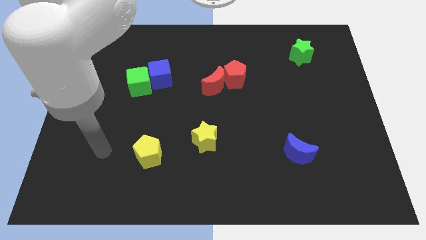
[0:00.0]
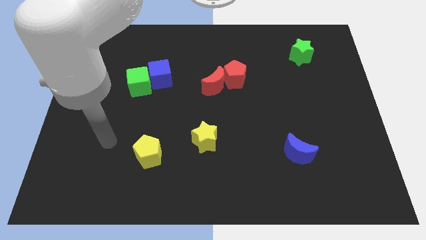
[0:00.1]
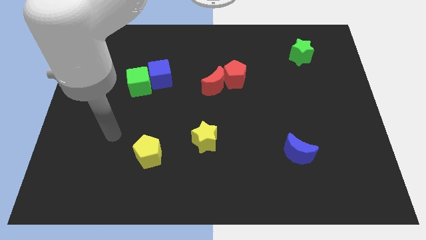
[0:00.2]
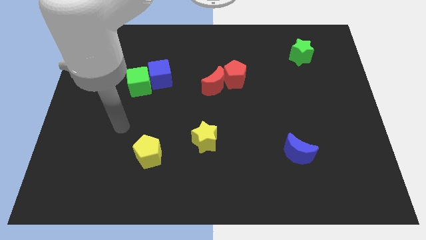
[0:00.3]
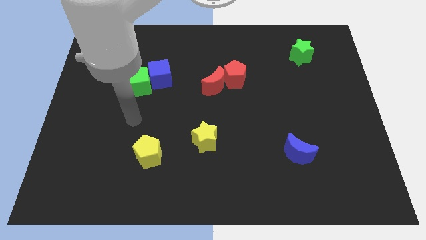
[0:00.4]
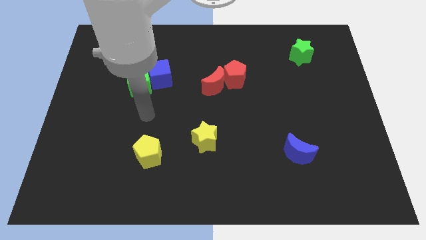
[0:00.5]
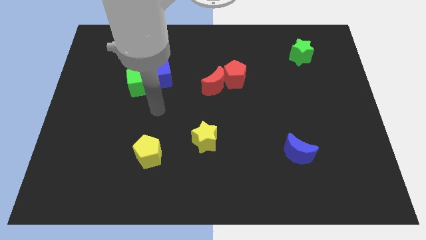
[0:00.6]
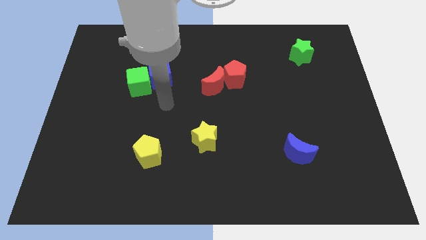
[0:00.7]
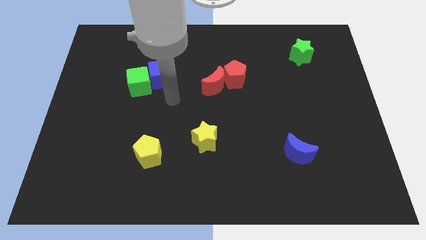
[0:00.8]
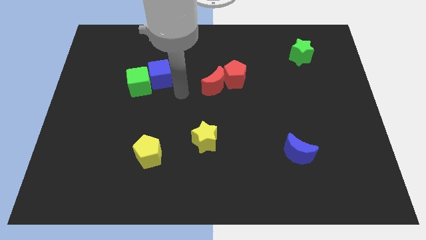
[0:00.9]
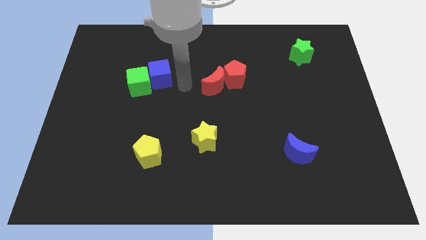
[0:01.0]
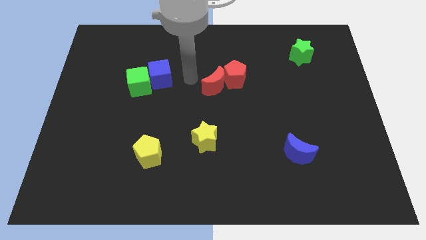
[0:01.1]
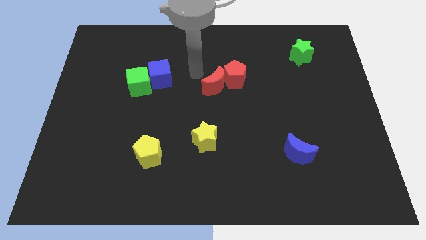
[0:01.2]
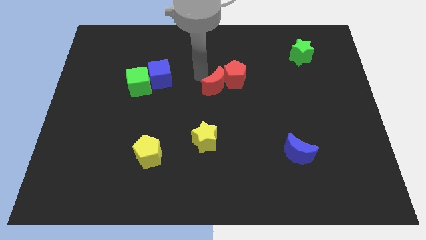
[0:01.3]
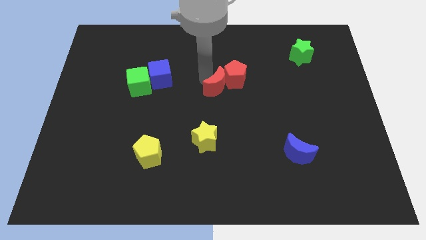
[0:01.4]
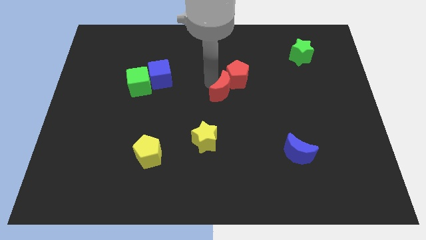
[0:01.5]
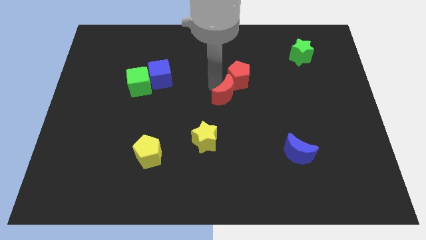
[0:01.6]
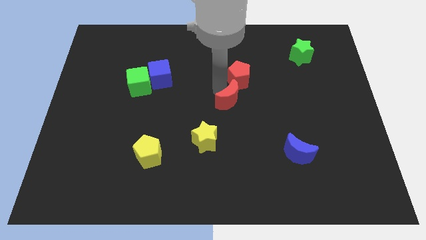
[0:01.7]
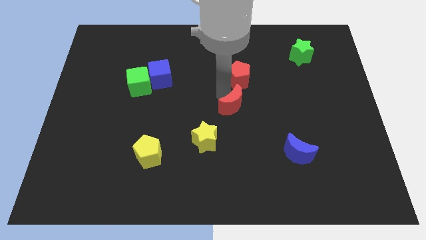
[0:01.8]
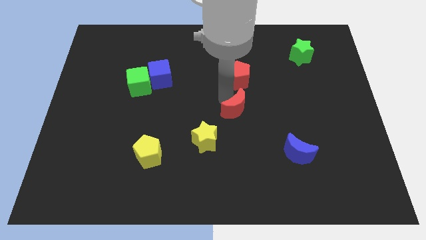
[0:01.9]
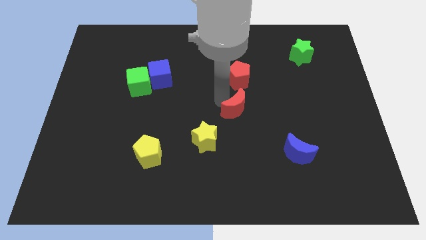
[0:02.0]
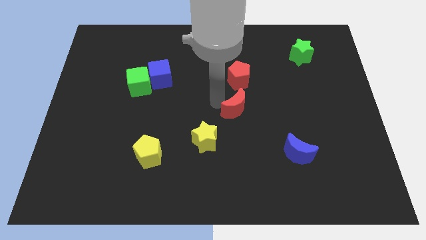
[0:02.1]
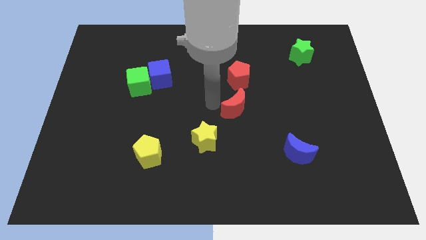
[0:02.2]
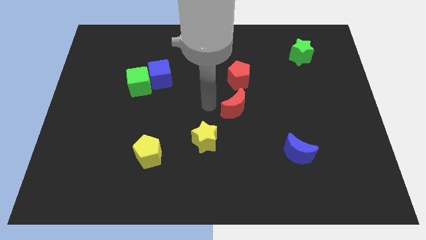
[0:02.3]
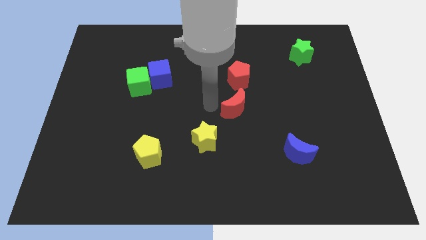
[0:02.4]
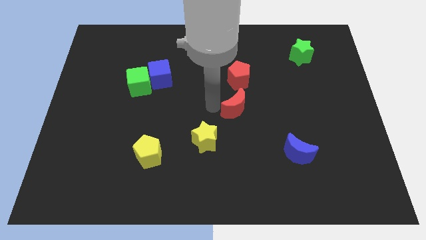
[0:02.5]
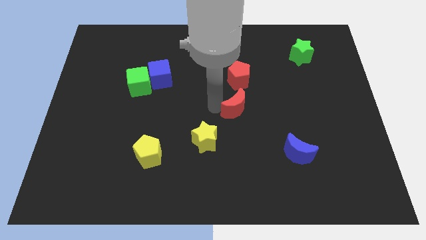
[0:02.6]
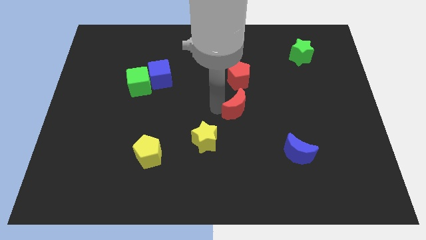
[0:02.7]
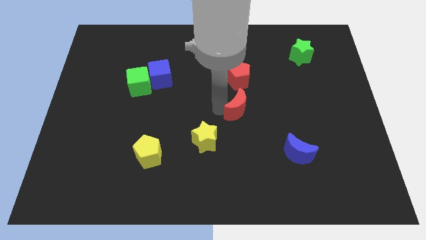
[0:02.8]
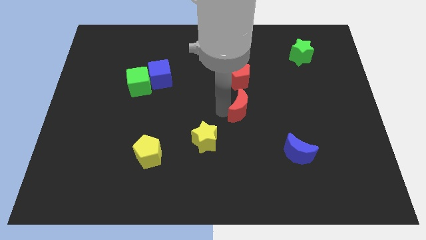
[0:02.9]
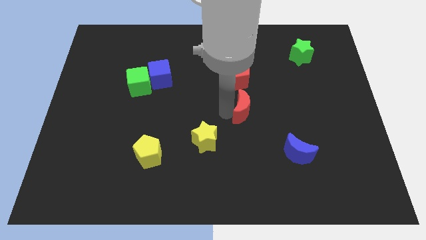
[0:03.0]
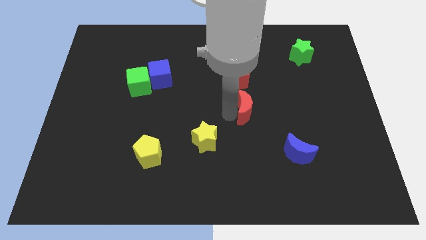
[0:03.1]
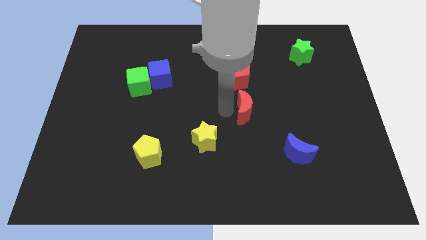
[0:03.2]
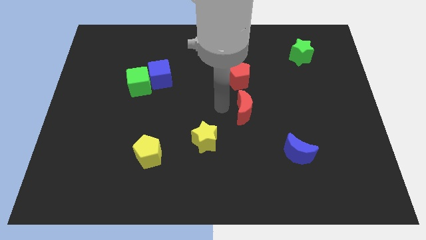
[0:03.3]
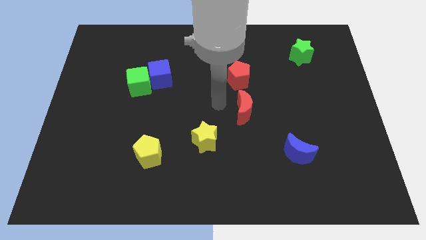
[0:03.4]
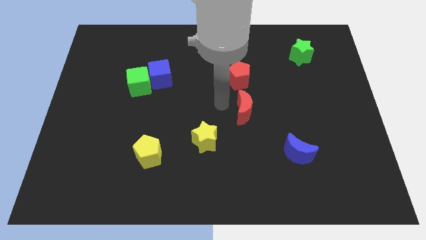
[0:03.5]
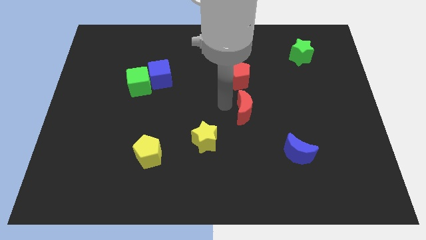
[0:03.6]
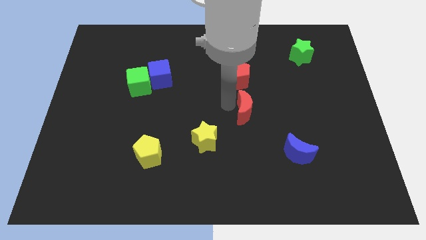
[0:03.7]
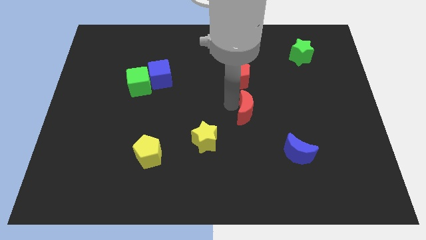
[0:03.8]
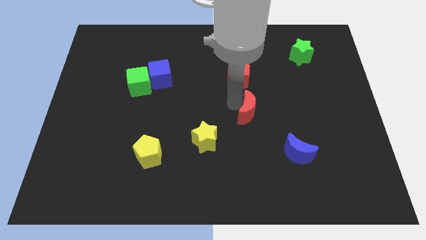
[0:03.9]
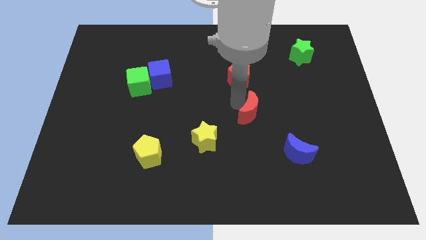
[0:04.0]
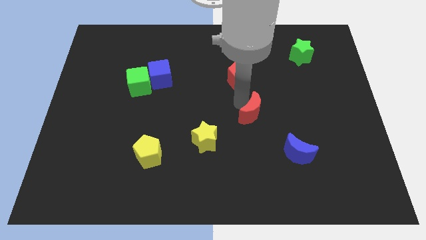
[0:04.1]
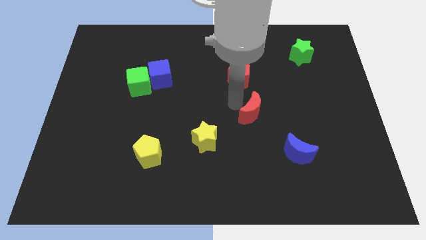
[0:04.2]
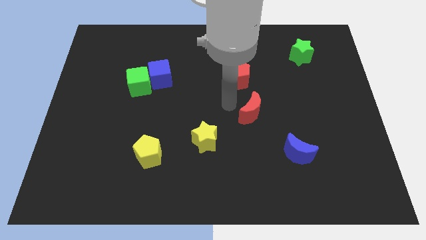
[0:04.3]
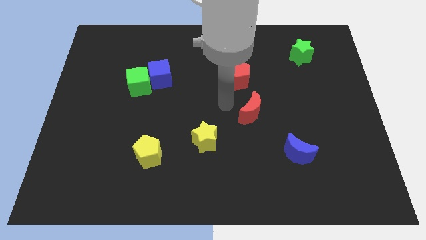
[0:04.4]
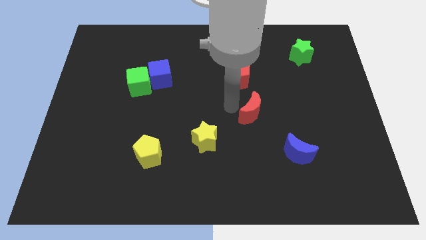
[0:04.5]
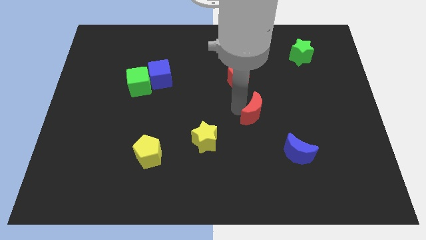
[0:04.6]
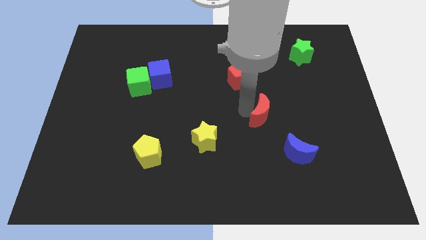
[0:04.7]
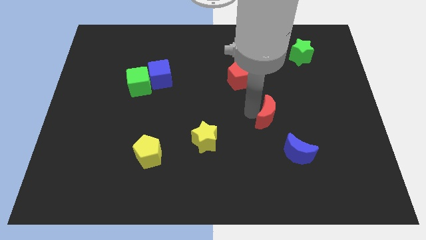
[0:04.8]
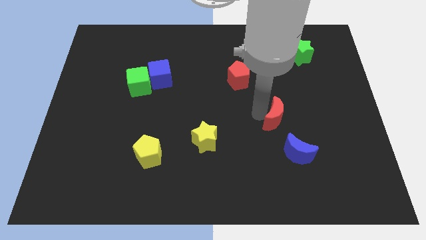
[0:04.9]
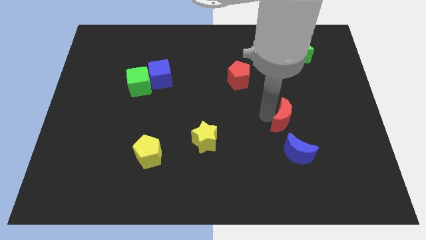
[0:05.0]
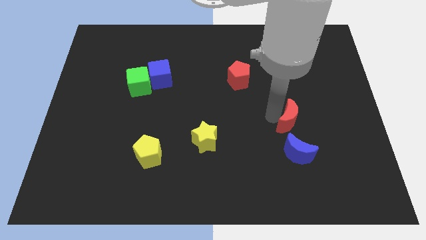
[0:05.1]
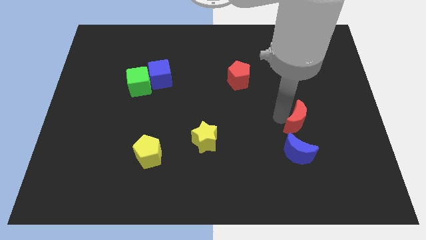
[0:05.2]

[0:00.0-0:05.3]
push the red moon downwards and to the right diagonally

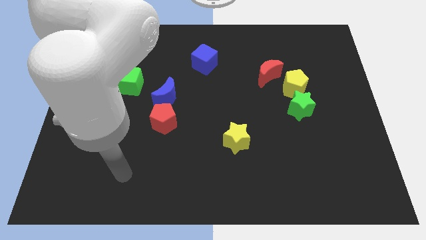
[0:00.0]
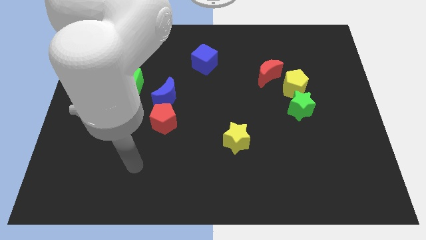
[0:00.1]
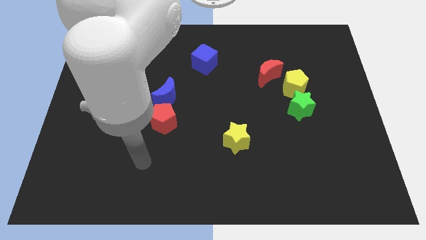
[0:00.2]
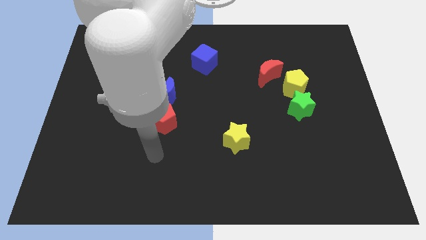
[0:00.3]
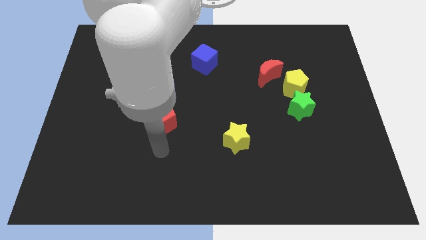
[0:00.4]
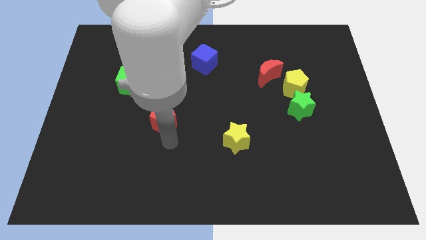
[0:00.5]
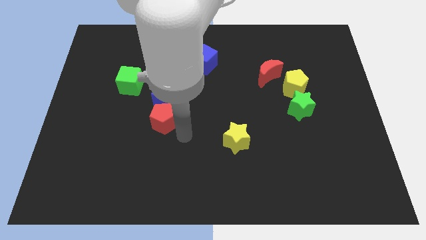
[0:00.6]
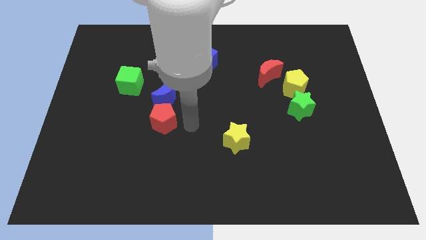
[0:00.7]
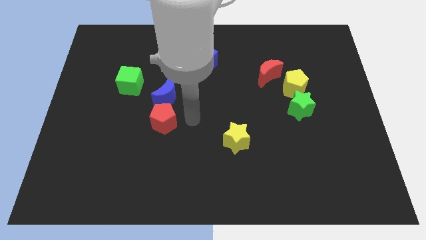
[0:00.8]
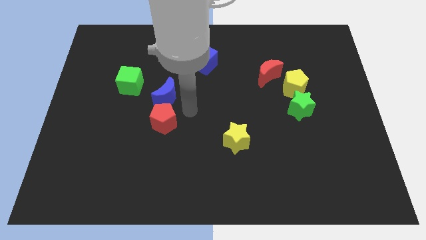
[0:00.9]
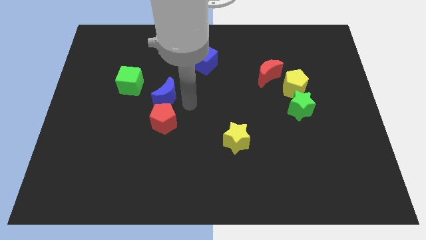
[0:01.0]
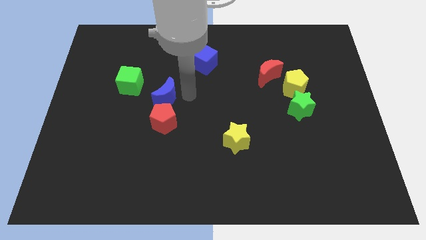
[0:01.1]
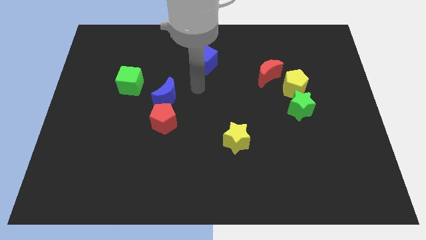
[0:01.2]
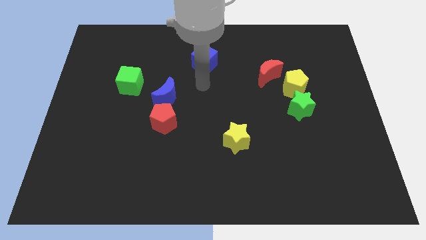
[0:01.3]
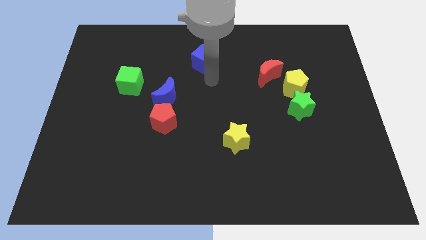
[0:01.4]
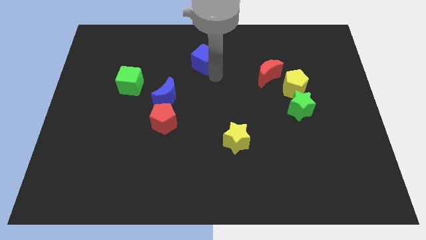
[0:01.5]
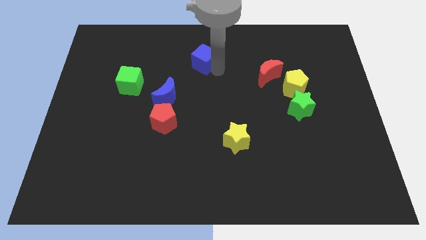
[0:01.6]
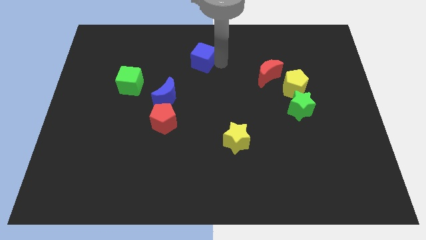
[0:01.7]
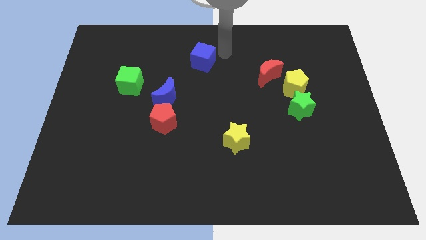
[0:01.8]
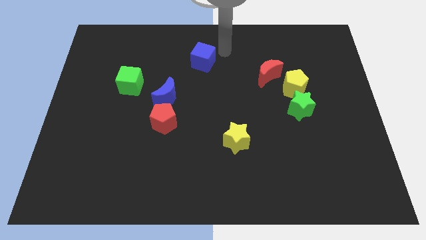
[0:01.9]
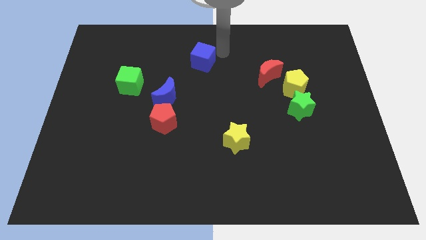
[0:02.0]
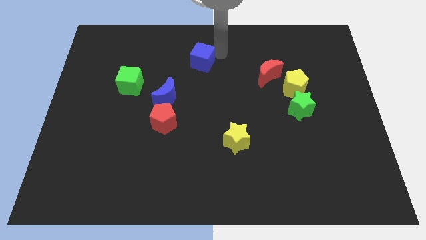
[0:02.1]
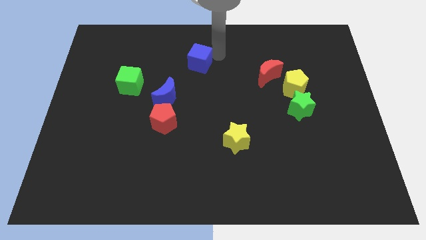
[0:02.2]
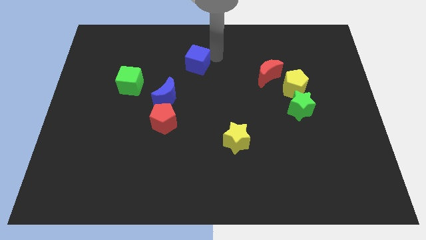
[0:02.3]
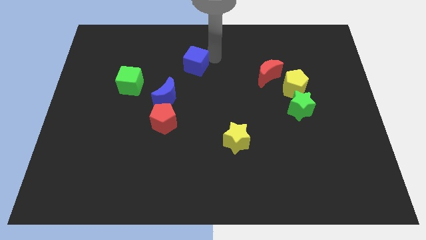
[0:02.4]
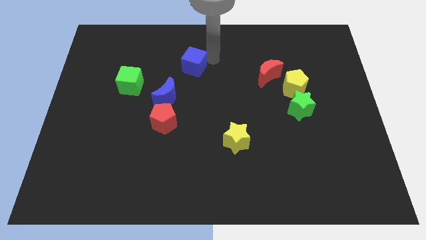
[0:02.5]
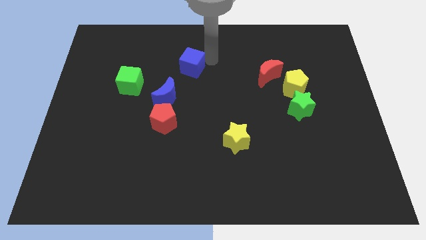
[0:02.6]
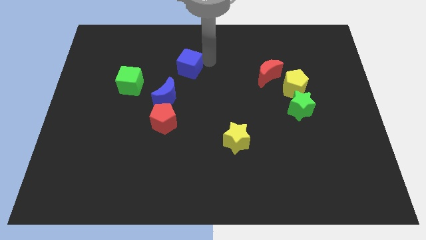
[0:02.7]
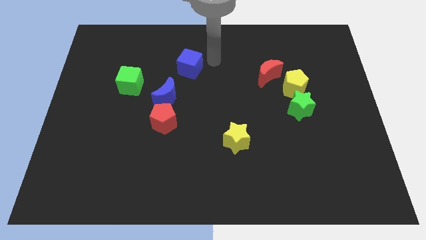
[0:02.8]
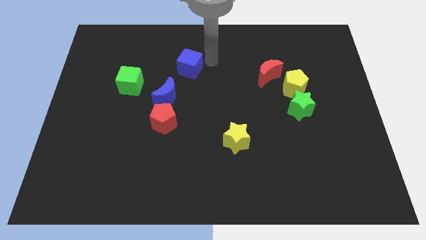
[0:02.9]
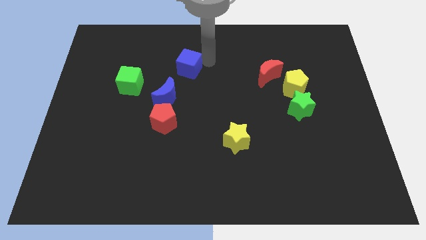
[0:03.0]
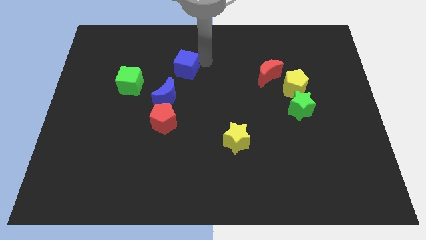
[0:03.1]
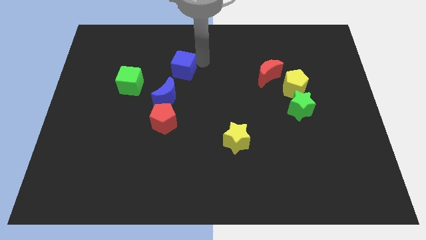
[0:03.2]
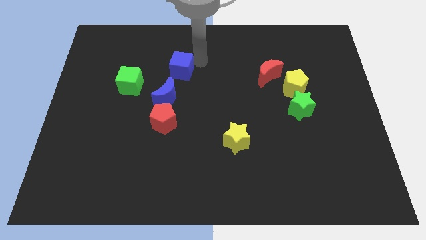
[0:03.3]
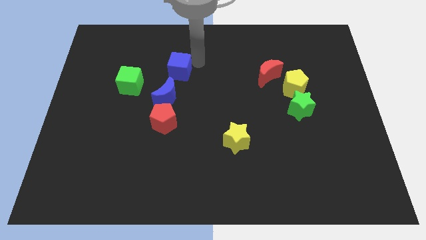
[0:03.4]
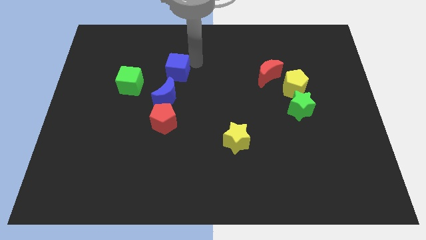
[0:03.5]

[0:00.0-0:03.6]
slide the blue cube a little bit downwards and then to the left
